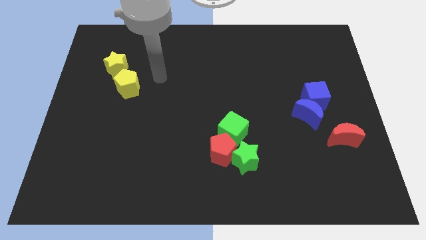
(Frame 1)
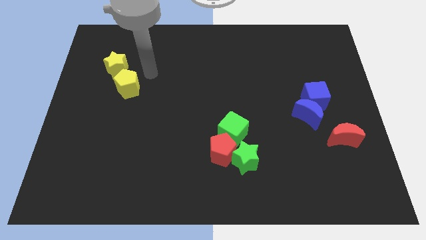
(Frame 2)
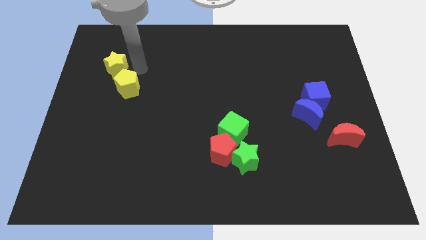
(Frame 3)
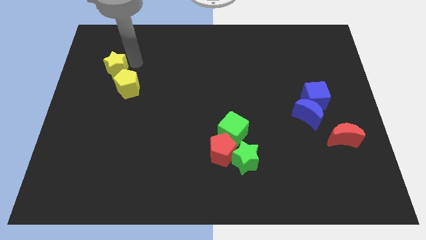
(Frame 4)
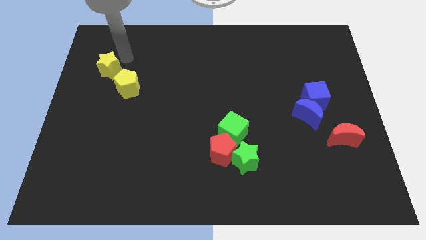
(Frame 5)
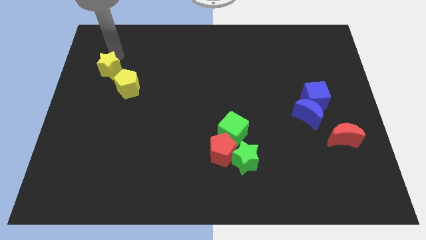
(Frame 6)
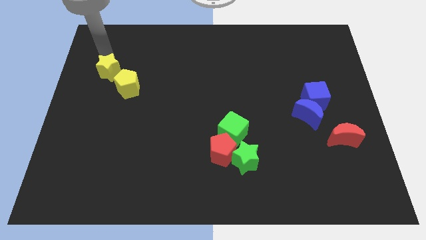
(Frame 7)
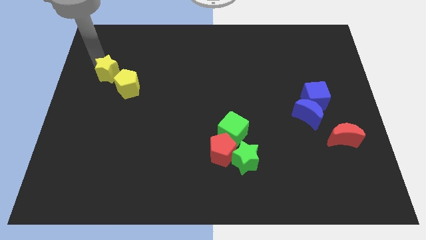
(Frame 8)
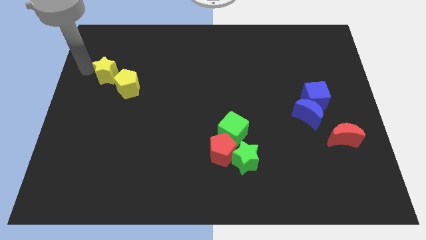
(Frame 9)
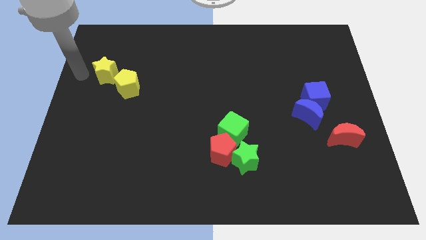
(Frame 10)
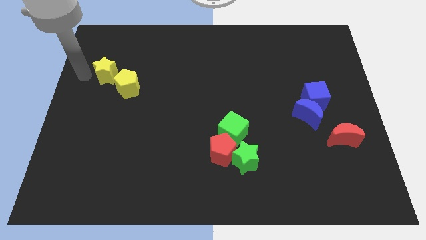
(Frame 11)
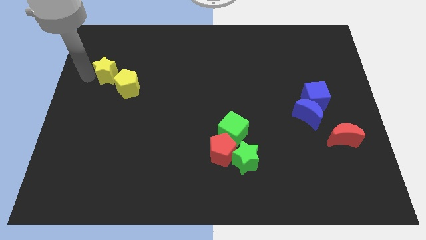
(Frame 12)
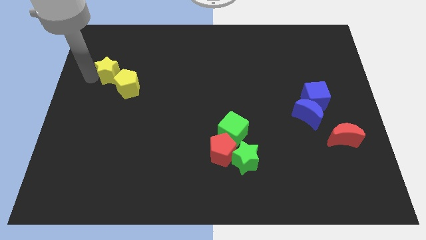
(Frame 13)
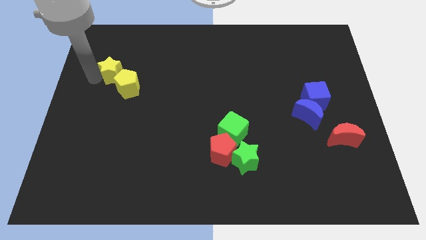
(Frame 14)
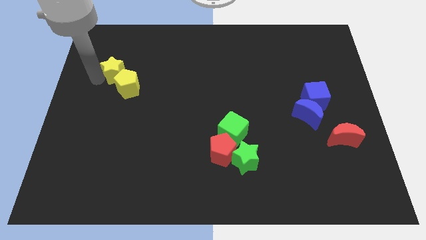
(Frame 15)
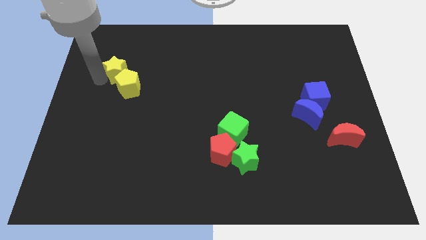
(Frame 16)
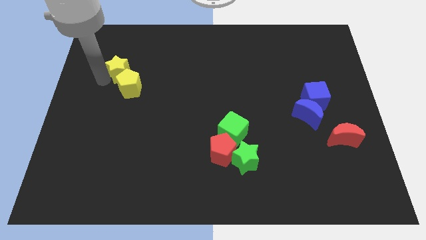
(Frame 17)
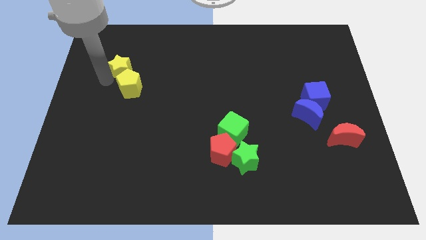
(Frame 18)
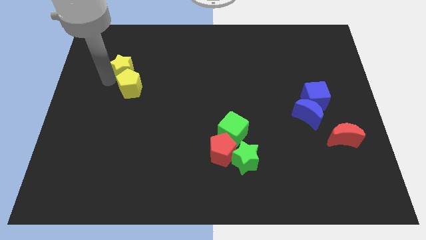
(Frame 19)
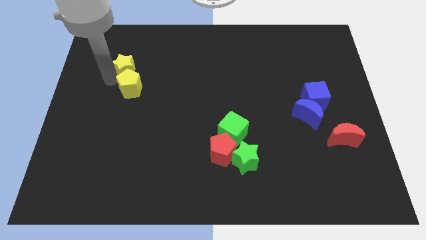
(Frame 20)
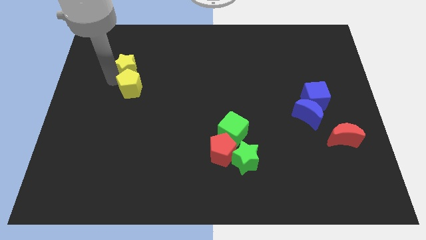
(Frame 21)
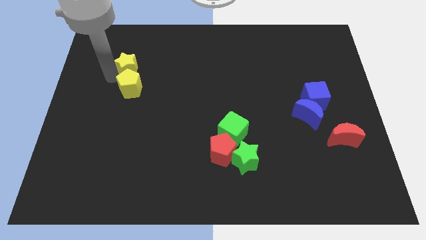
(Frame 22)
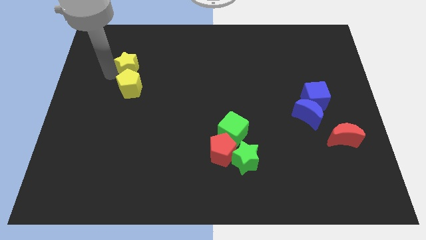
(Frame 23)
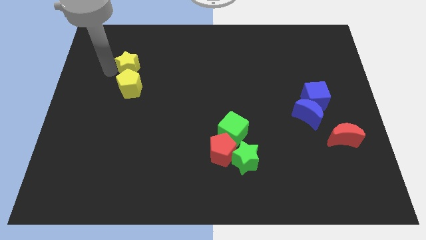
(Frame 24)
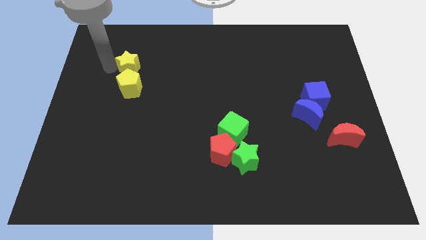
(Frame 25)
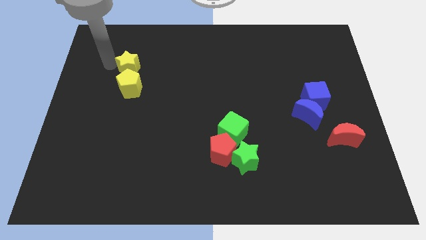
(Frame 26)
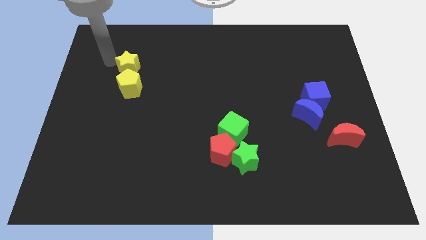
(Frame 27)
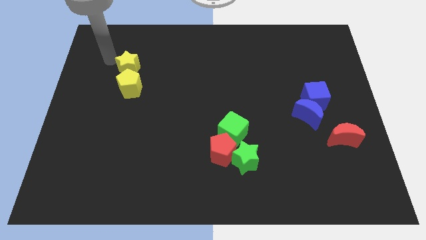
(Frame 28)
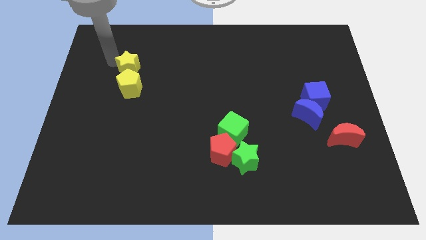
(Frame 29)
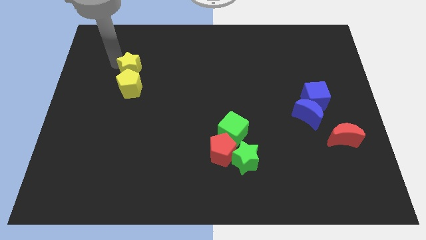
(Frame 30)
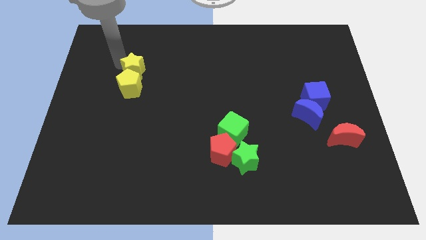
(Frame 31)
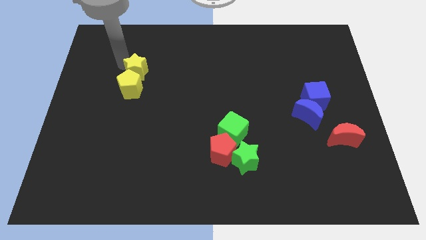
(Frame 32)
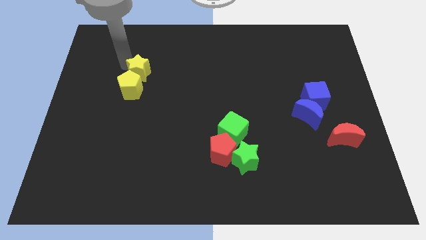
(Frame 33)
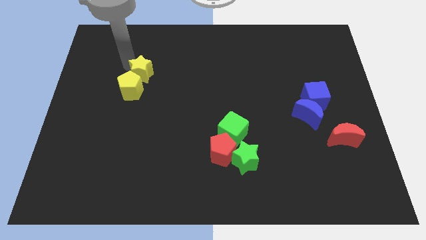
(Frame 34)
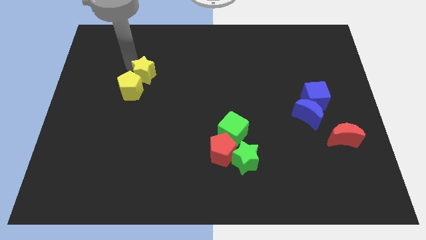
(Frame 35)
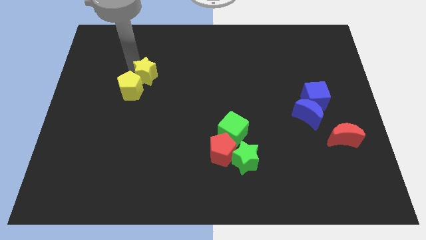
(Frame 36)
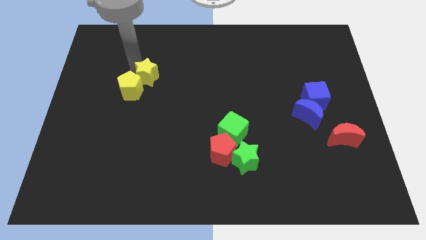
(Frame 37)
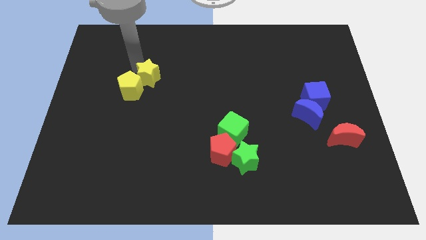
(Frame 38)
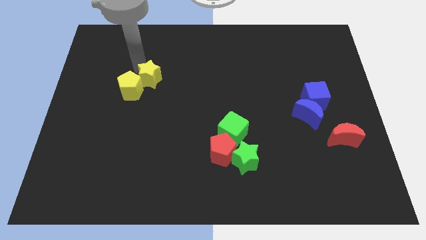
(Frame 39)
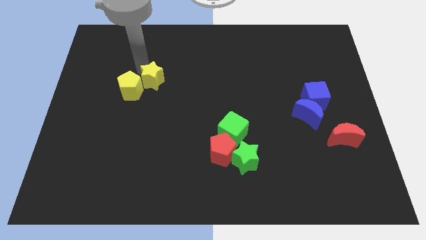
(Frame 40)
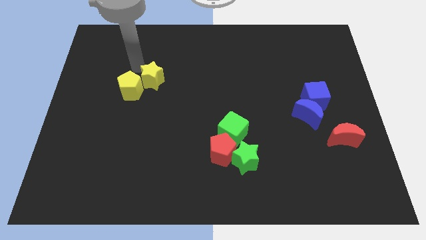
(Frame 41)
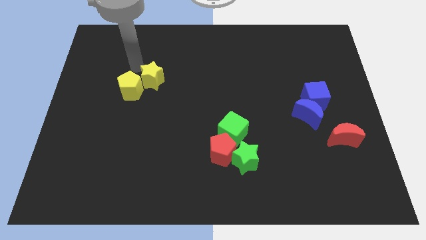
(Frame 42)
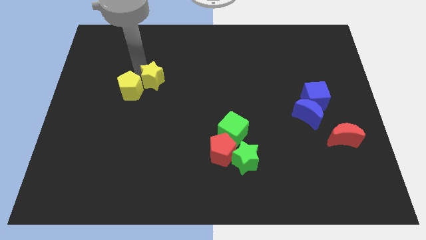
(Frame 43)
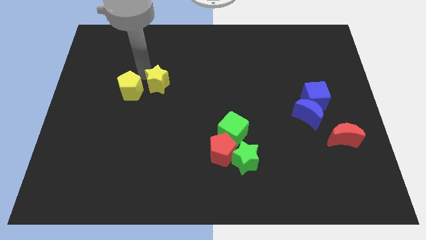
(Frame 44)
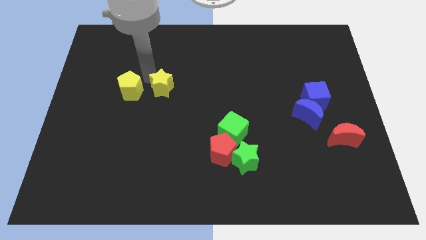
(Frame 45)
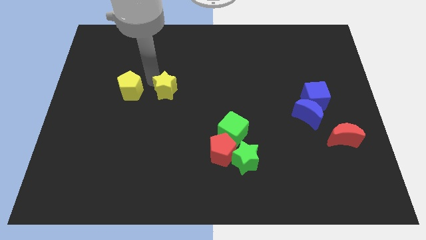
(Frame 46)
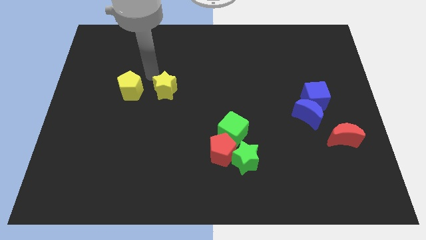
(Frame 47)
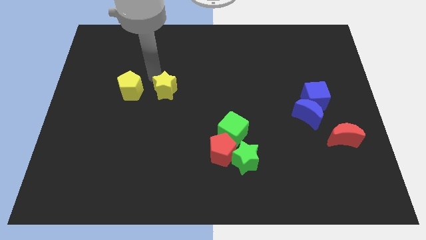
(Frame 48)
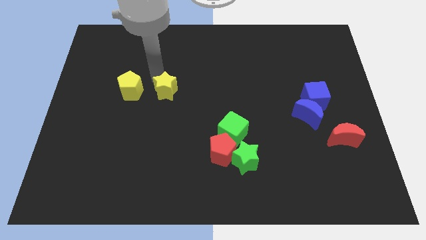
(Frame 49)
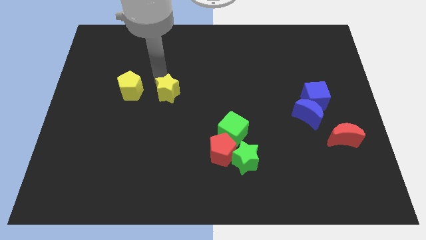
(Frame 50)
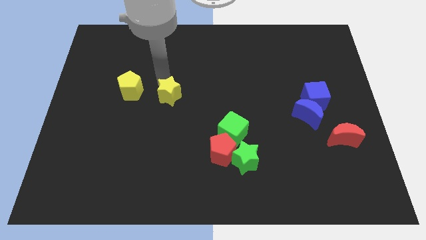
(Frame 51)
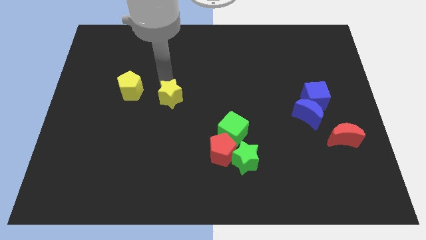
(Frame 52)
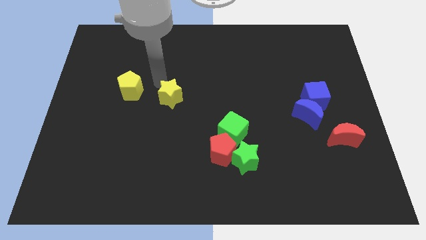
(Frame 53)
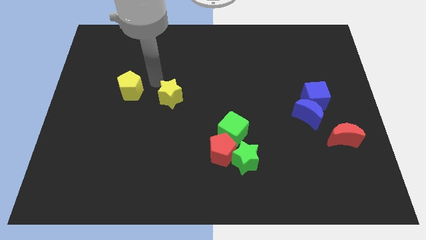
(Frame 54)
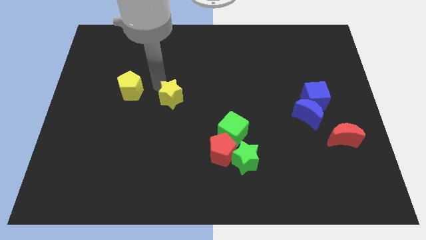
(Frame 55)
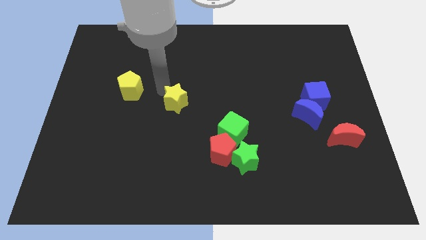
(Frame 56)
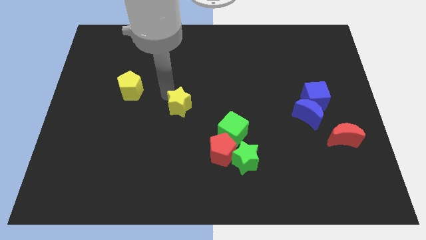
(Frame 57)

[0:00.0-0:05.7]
move the yellow star downwards and right diagonally

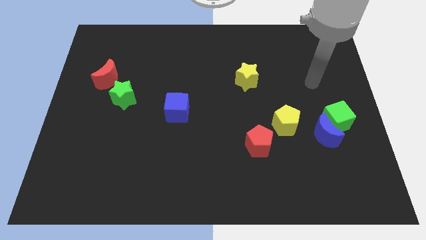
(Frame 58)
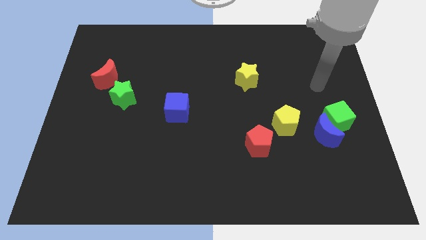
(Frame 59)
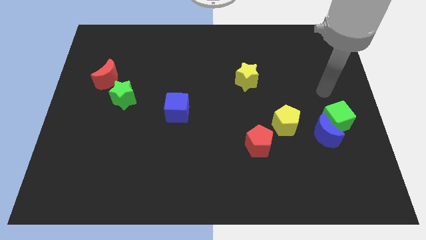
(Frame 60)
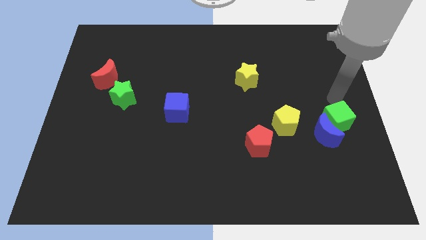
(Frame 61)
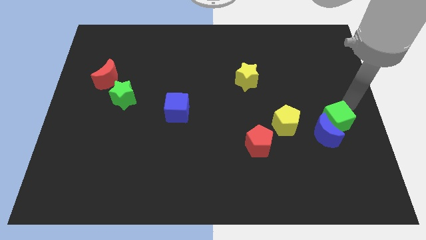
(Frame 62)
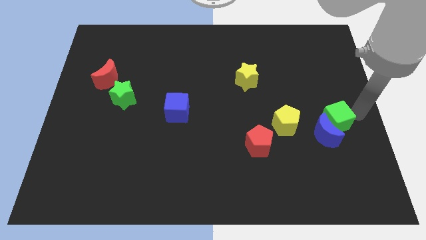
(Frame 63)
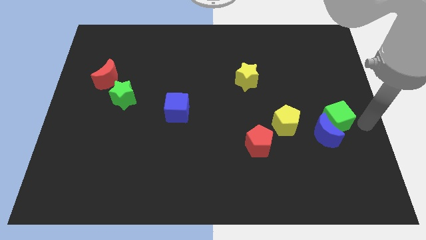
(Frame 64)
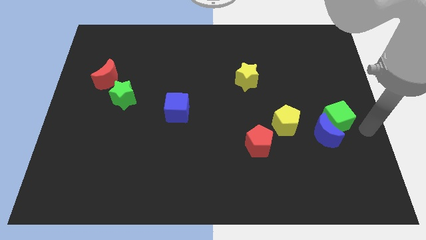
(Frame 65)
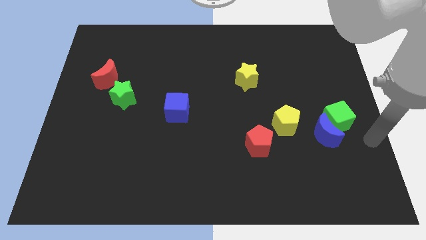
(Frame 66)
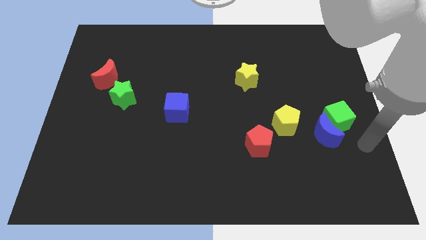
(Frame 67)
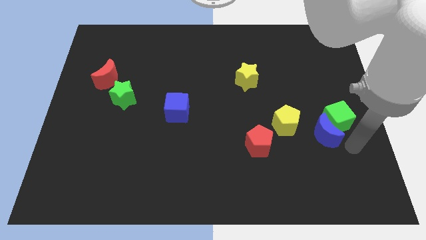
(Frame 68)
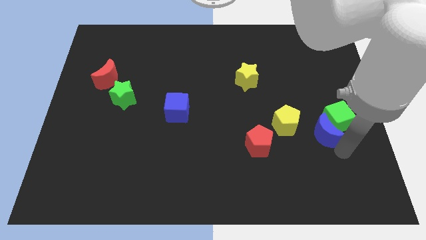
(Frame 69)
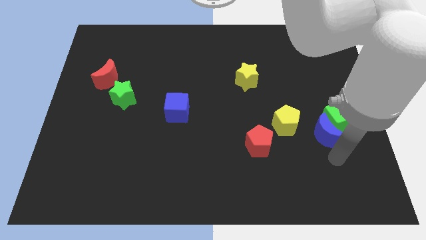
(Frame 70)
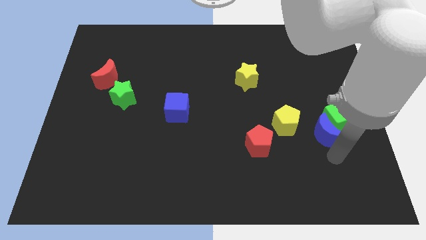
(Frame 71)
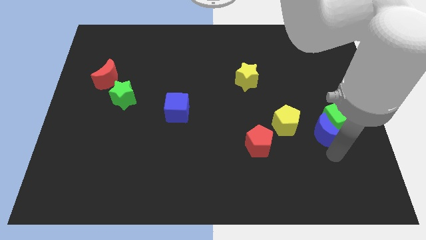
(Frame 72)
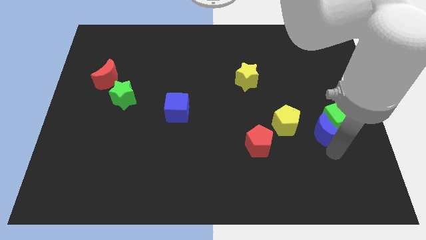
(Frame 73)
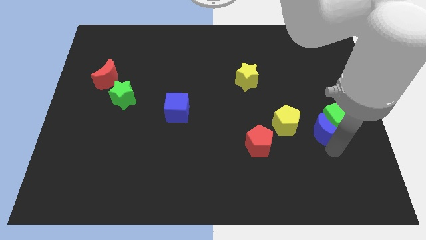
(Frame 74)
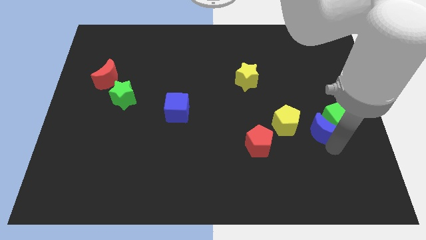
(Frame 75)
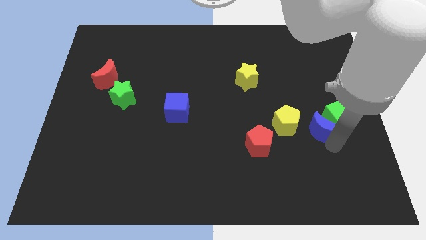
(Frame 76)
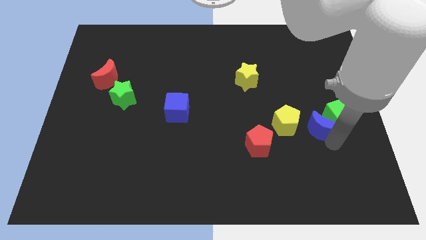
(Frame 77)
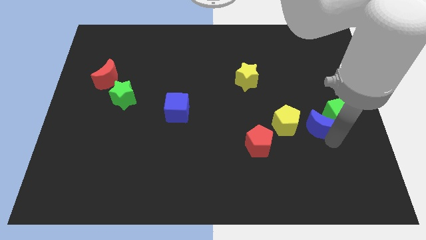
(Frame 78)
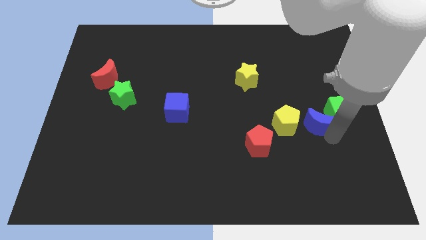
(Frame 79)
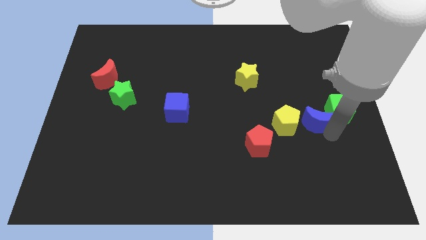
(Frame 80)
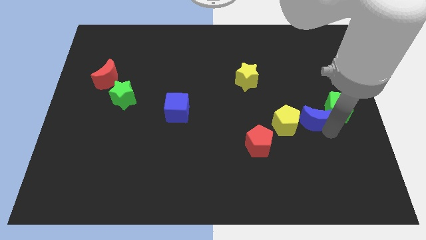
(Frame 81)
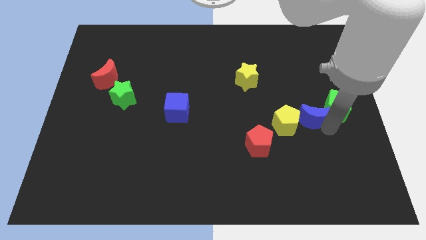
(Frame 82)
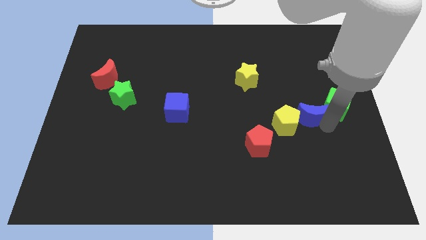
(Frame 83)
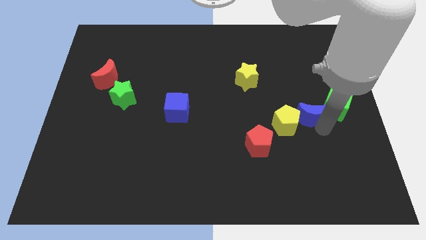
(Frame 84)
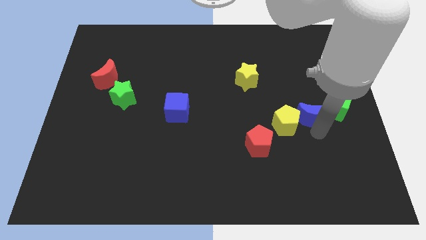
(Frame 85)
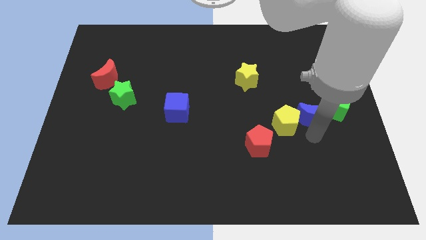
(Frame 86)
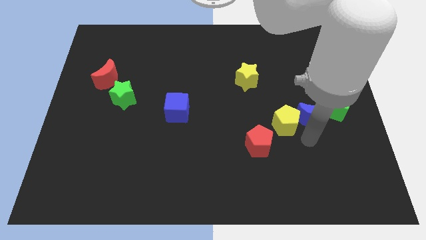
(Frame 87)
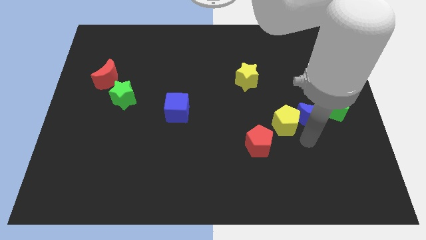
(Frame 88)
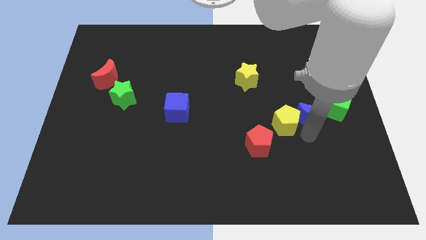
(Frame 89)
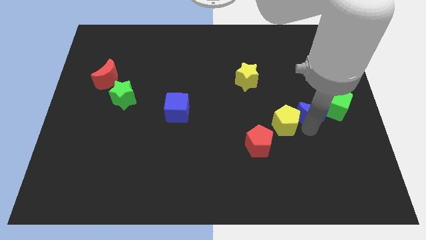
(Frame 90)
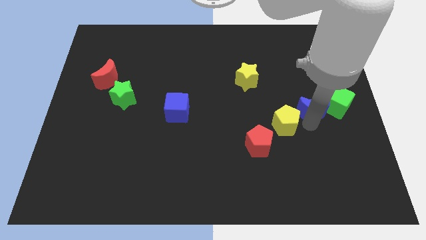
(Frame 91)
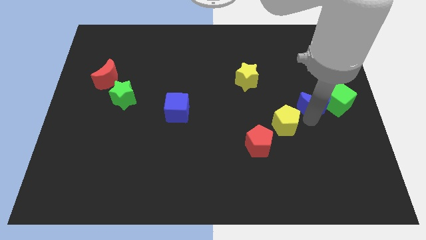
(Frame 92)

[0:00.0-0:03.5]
move the blue moon a bit upwards
